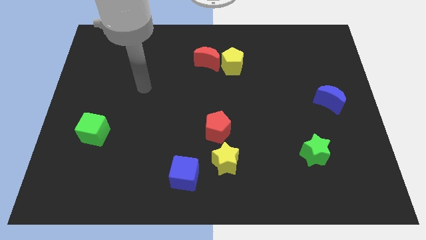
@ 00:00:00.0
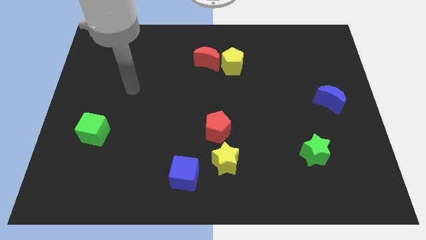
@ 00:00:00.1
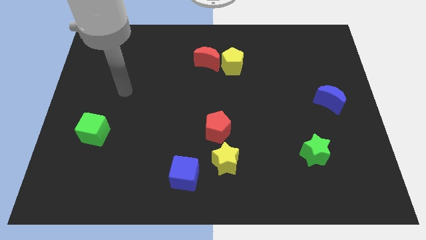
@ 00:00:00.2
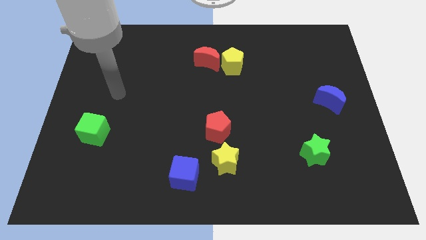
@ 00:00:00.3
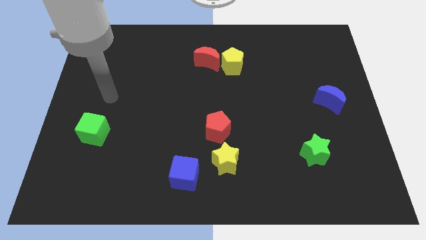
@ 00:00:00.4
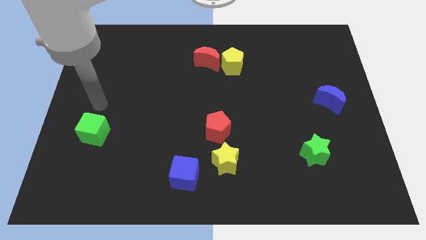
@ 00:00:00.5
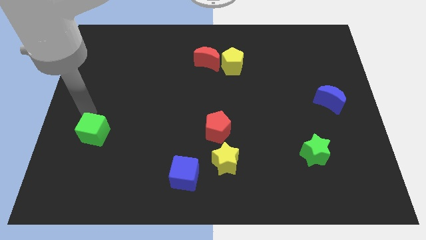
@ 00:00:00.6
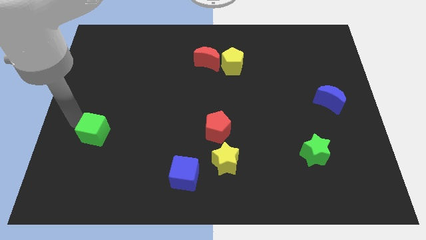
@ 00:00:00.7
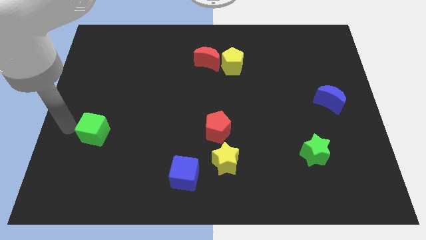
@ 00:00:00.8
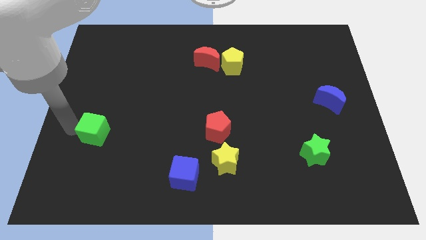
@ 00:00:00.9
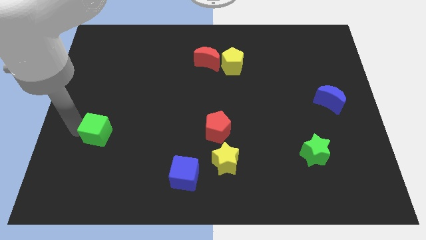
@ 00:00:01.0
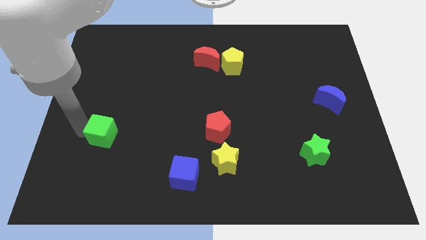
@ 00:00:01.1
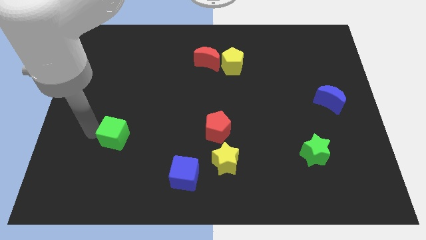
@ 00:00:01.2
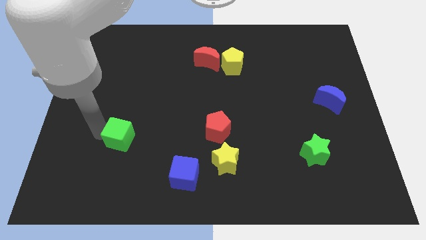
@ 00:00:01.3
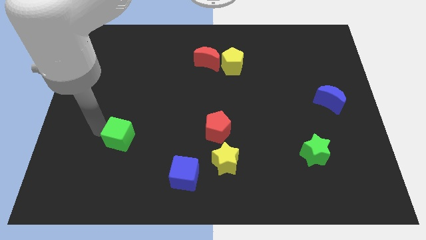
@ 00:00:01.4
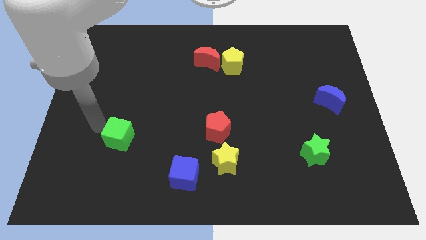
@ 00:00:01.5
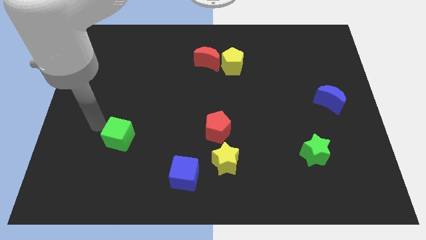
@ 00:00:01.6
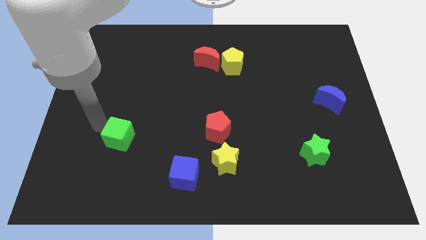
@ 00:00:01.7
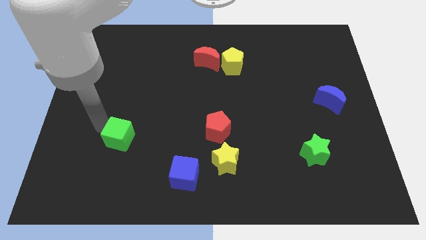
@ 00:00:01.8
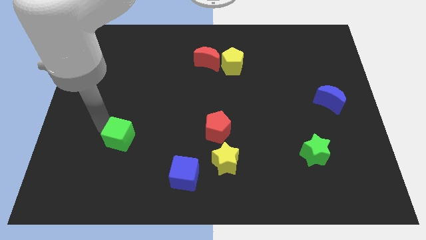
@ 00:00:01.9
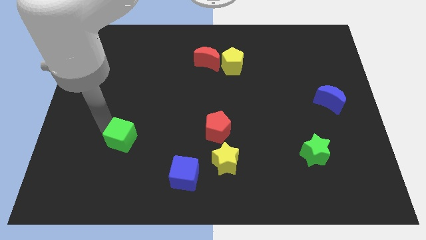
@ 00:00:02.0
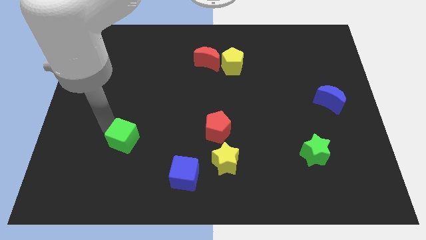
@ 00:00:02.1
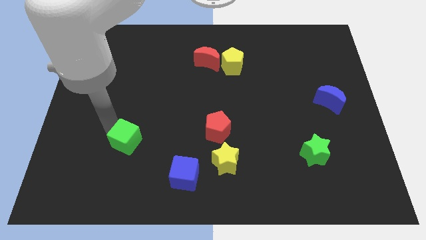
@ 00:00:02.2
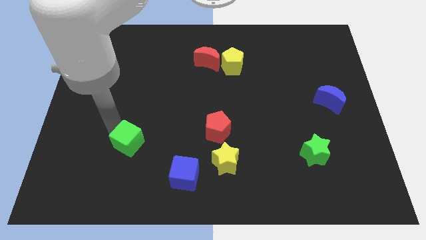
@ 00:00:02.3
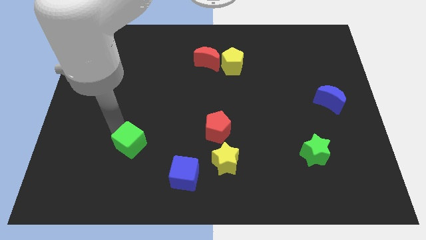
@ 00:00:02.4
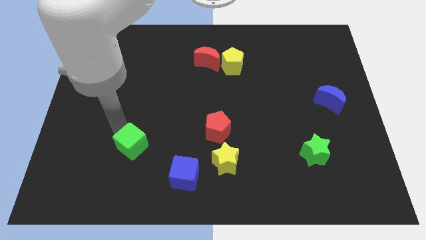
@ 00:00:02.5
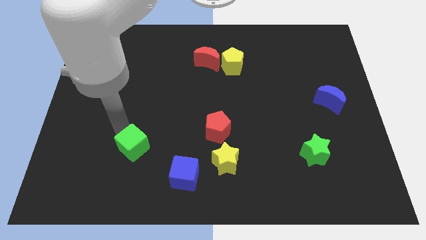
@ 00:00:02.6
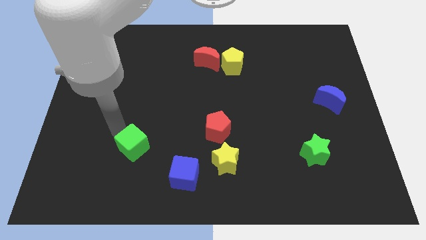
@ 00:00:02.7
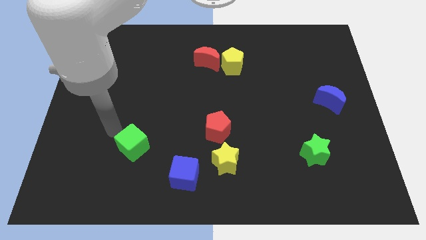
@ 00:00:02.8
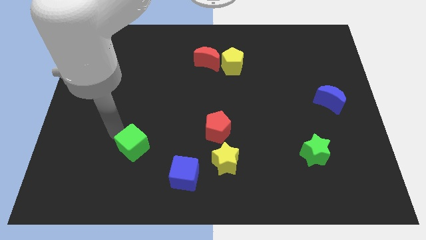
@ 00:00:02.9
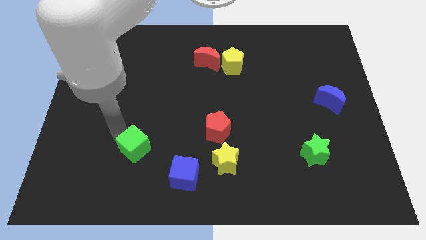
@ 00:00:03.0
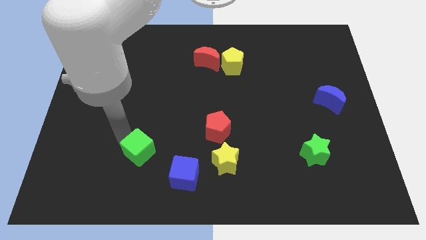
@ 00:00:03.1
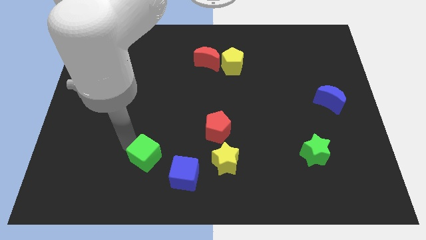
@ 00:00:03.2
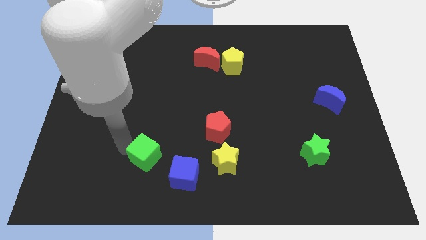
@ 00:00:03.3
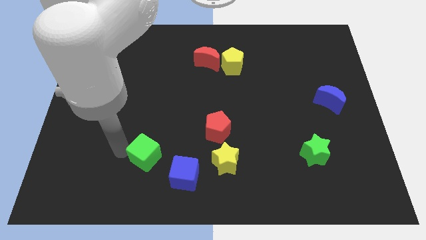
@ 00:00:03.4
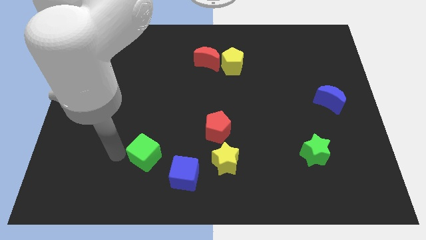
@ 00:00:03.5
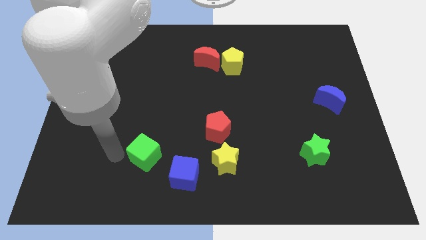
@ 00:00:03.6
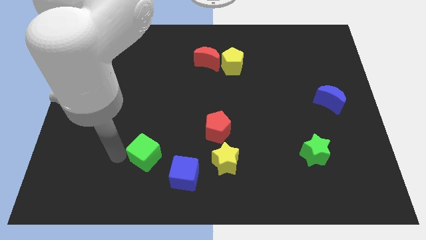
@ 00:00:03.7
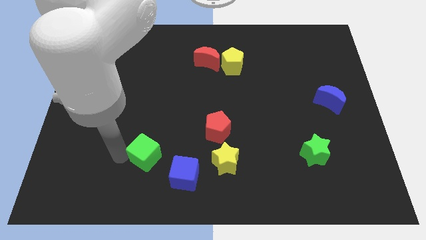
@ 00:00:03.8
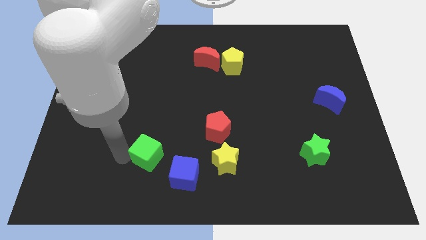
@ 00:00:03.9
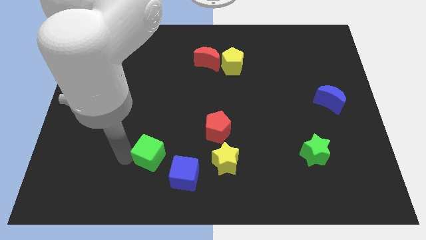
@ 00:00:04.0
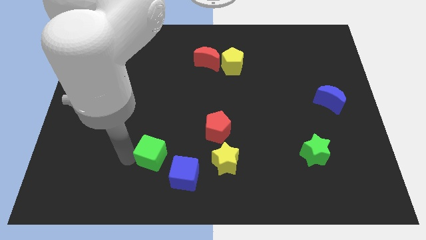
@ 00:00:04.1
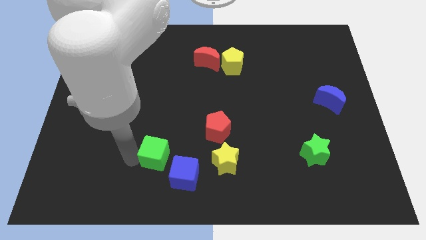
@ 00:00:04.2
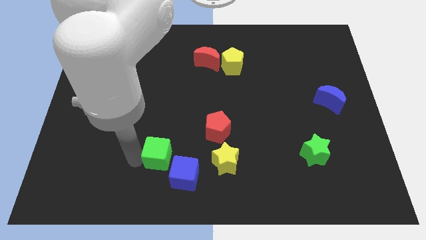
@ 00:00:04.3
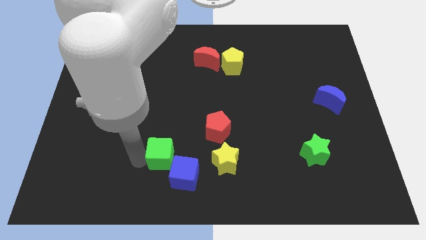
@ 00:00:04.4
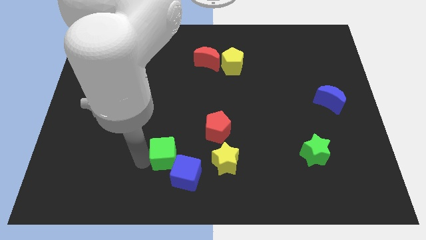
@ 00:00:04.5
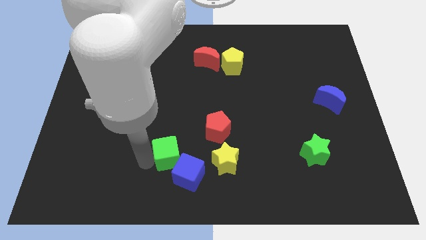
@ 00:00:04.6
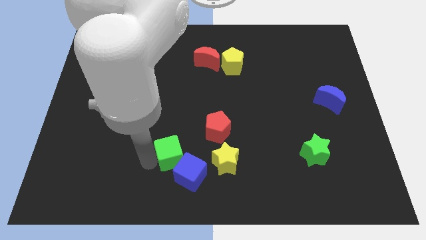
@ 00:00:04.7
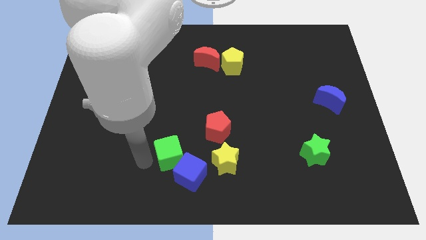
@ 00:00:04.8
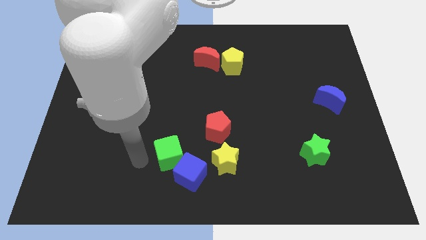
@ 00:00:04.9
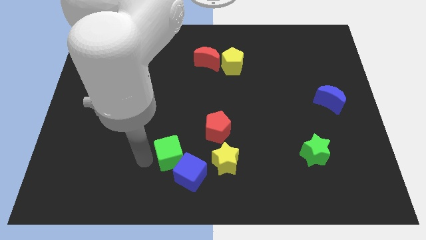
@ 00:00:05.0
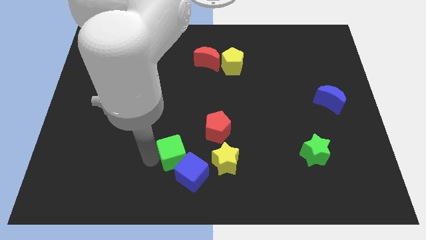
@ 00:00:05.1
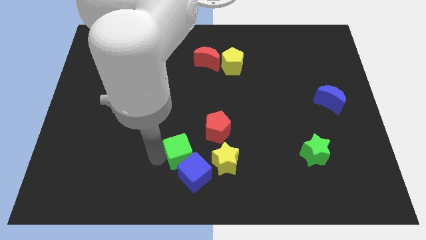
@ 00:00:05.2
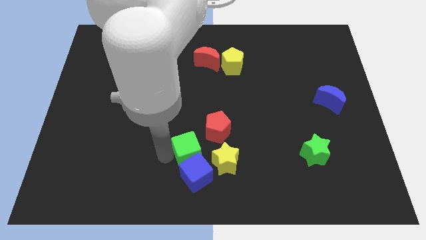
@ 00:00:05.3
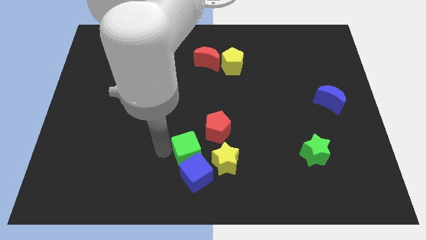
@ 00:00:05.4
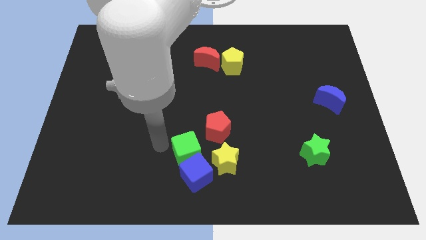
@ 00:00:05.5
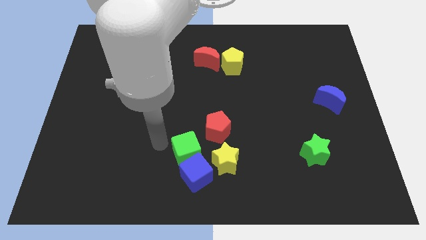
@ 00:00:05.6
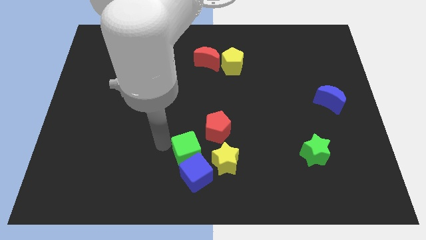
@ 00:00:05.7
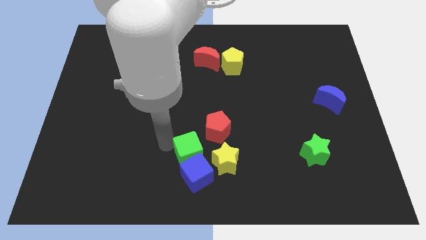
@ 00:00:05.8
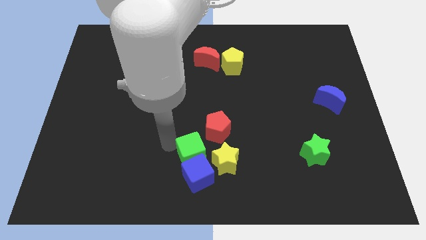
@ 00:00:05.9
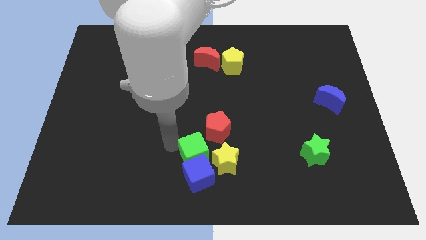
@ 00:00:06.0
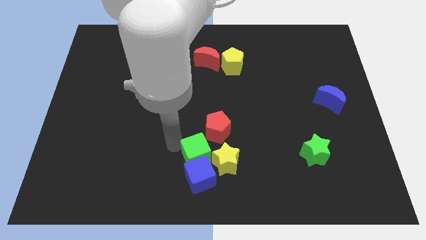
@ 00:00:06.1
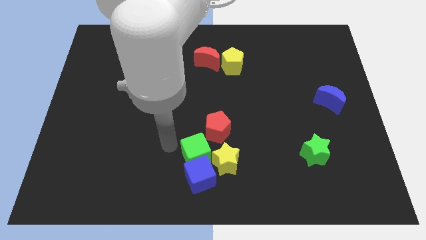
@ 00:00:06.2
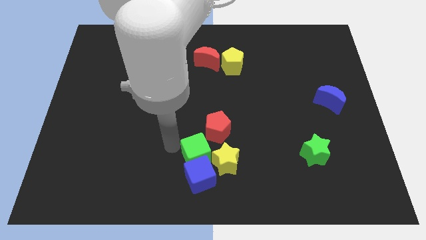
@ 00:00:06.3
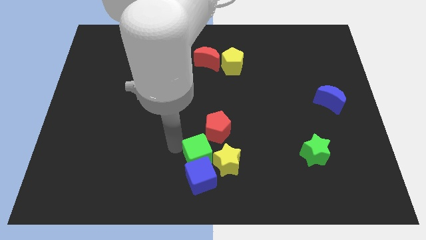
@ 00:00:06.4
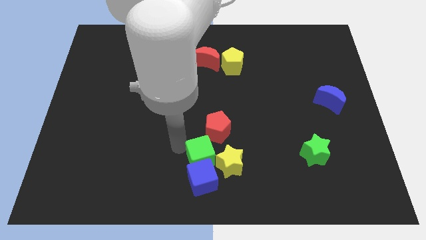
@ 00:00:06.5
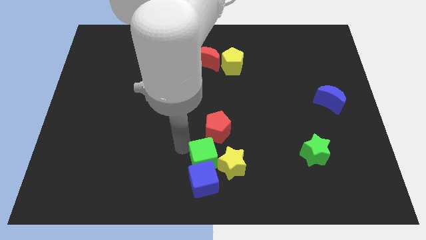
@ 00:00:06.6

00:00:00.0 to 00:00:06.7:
move the green cube close to the yellow star
